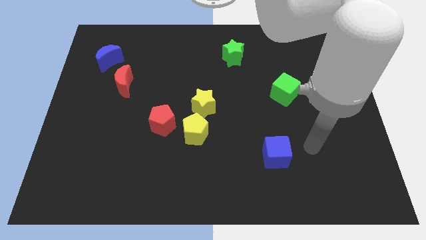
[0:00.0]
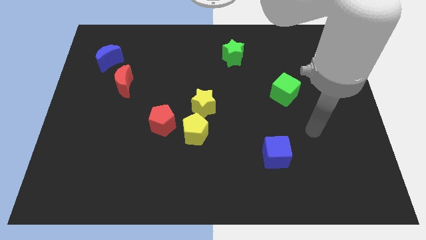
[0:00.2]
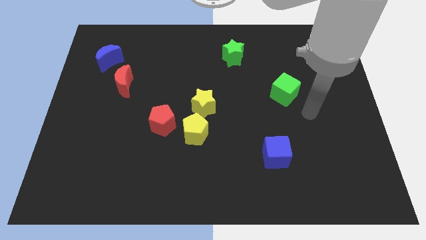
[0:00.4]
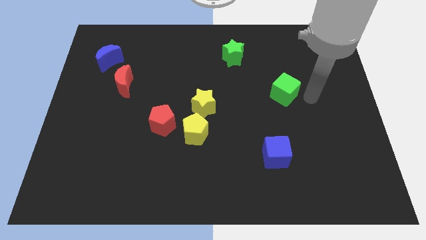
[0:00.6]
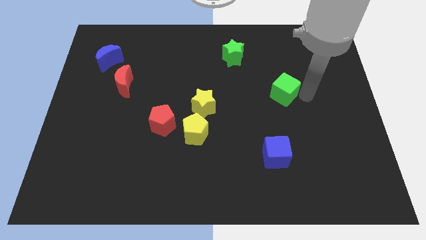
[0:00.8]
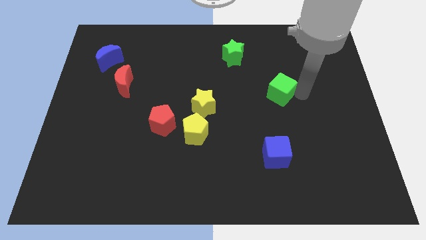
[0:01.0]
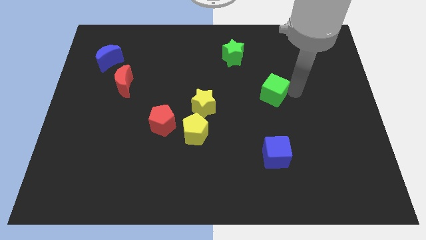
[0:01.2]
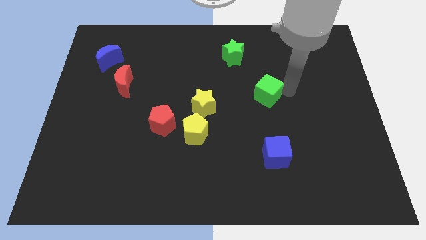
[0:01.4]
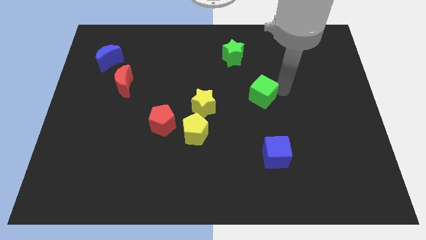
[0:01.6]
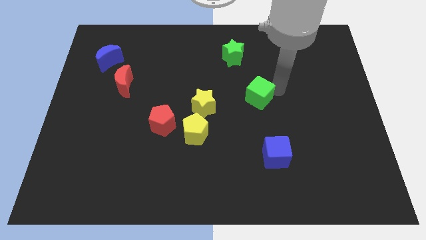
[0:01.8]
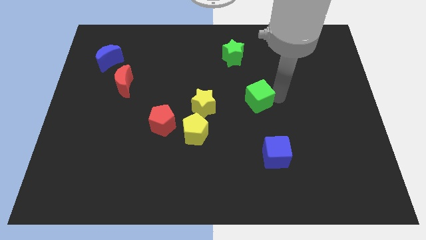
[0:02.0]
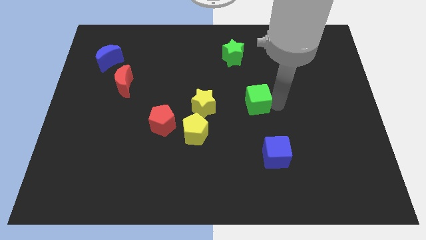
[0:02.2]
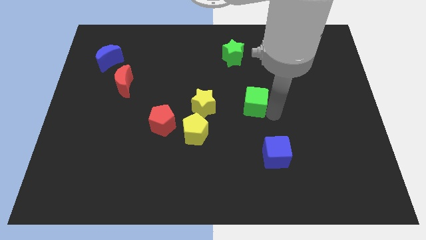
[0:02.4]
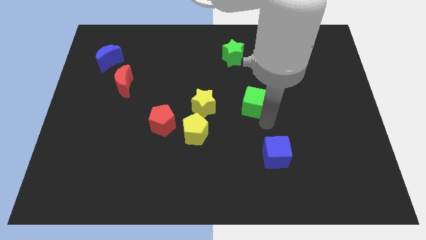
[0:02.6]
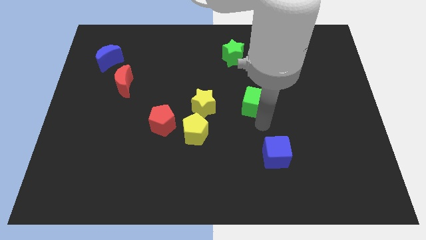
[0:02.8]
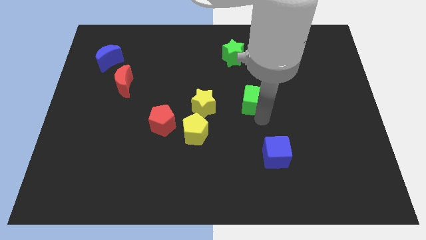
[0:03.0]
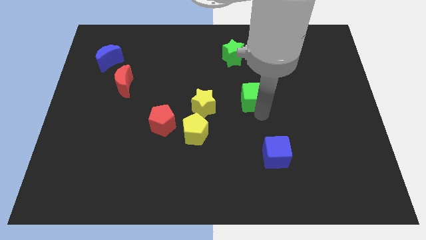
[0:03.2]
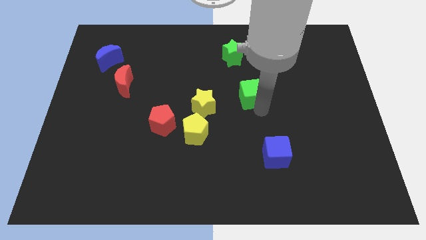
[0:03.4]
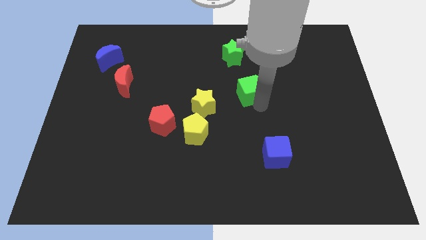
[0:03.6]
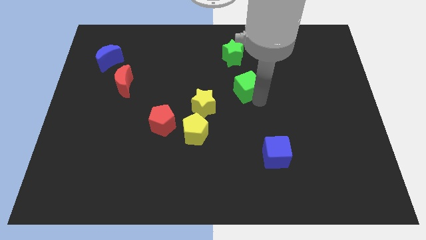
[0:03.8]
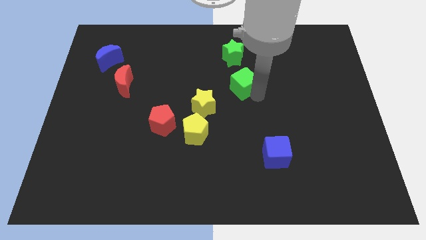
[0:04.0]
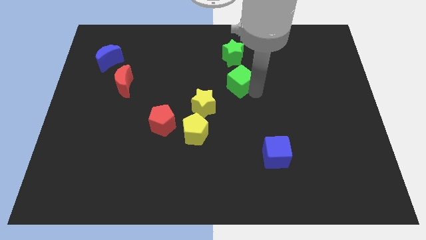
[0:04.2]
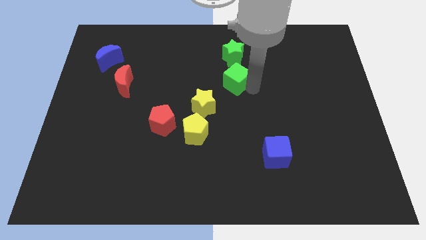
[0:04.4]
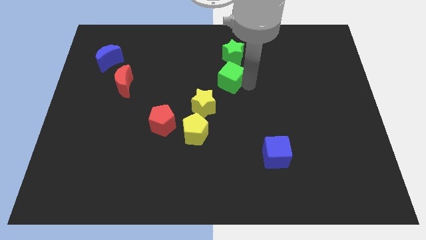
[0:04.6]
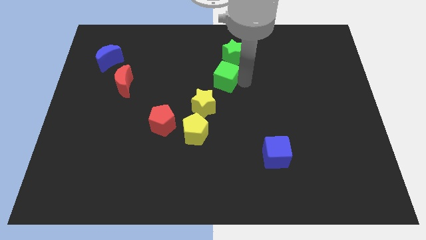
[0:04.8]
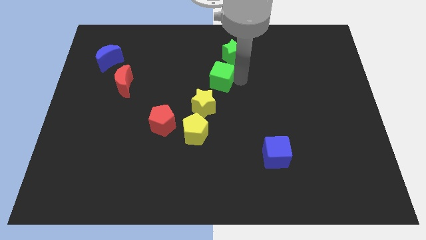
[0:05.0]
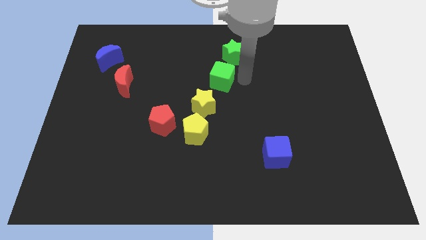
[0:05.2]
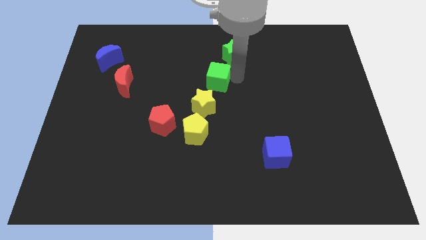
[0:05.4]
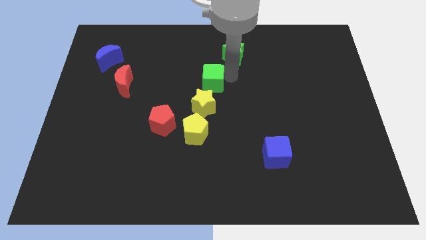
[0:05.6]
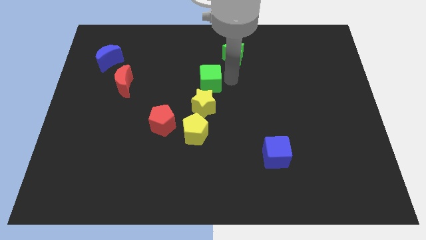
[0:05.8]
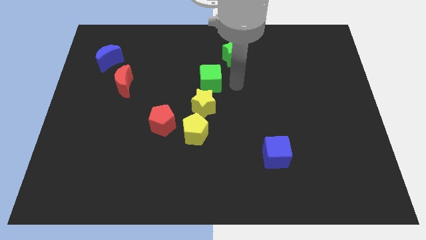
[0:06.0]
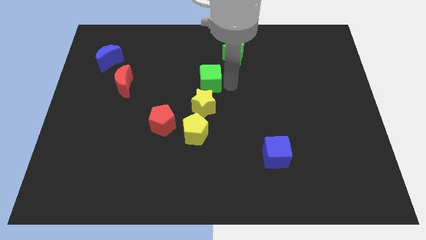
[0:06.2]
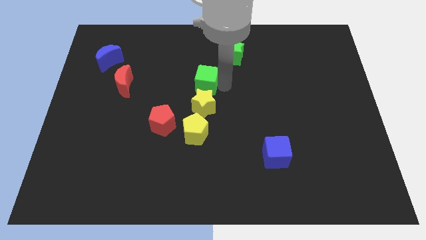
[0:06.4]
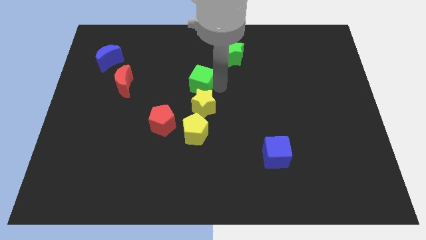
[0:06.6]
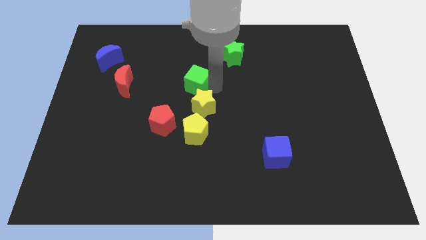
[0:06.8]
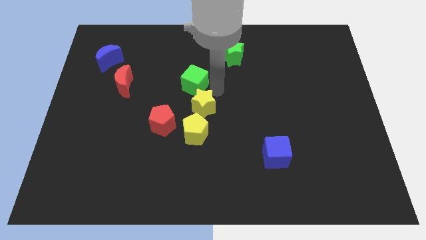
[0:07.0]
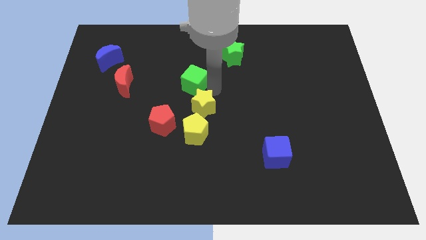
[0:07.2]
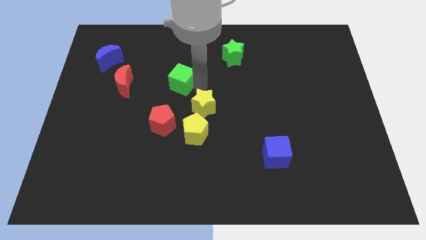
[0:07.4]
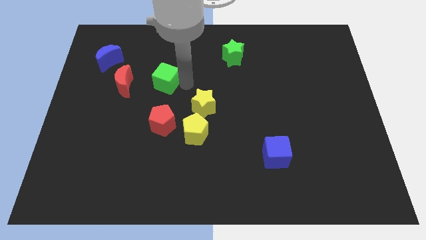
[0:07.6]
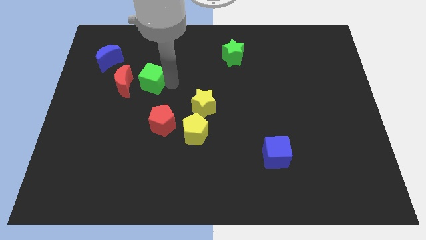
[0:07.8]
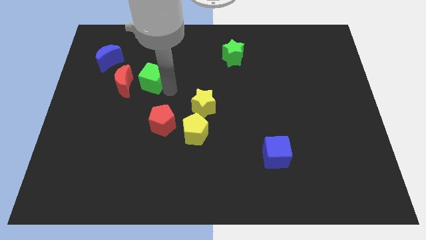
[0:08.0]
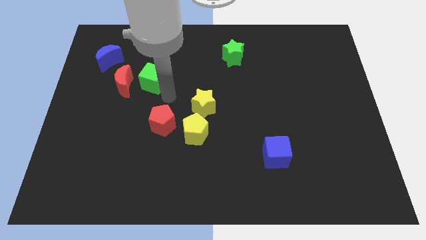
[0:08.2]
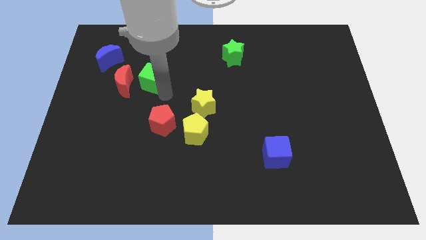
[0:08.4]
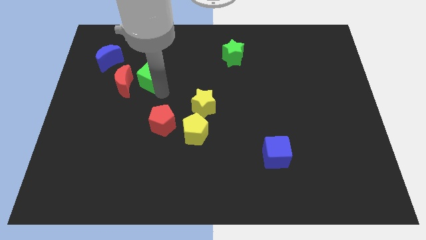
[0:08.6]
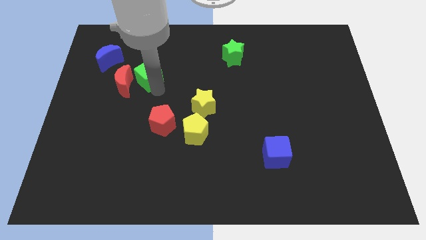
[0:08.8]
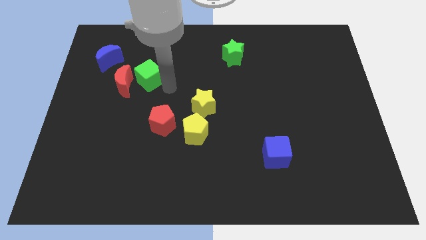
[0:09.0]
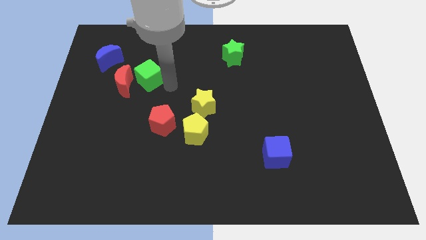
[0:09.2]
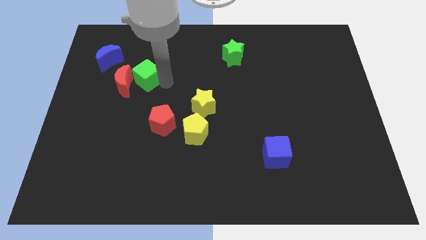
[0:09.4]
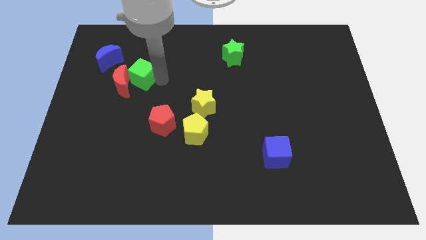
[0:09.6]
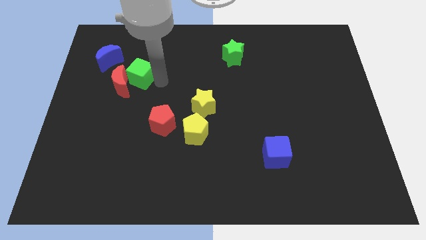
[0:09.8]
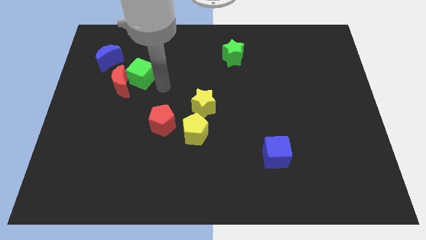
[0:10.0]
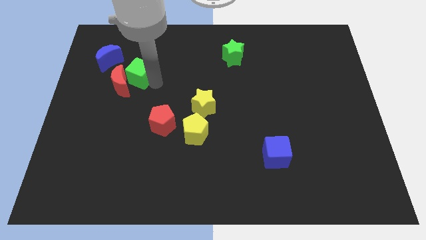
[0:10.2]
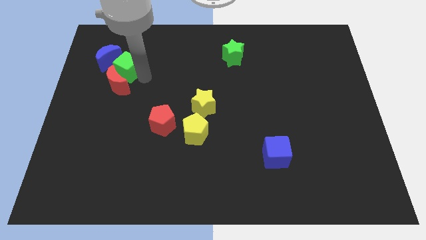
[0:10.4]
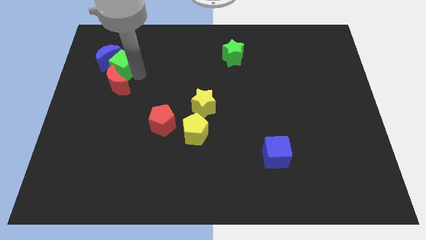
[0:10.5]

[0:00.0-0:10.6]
move the green cube close to the blue moon

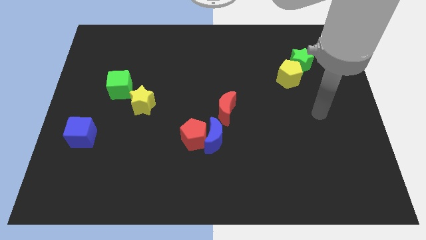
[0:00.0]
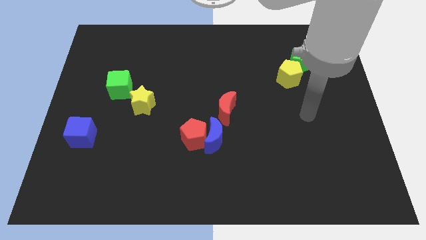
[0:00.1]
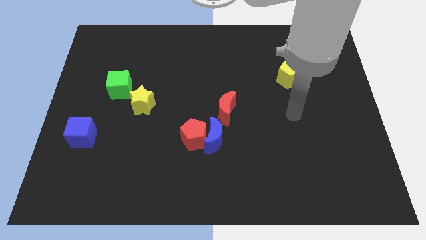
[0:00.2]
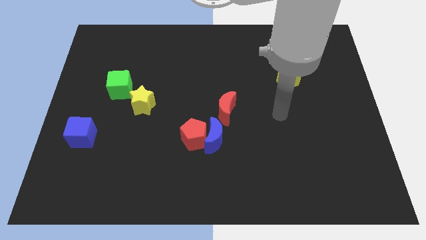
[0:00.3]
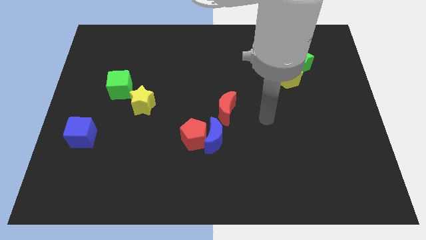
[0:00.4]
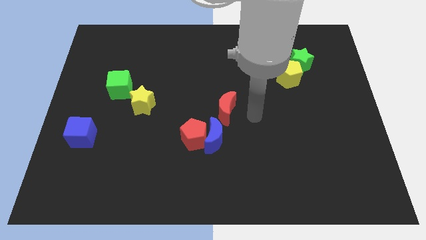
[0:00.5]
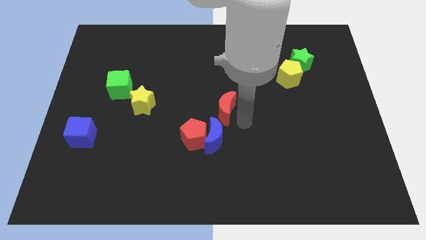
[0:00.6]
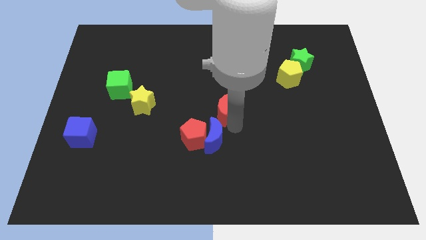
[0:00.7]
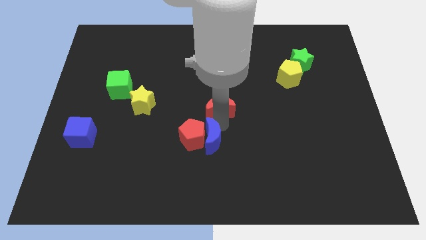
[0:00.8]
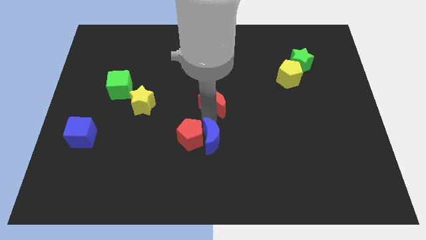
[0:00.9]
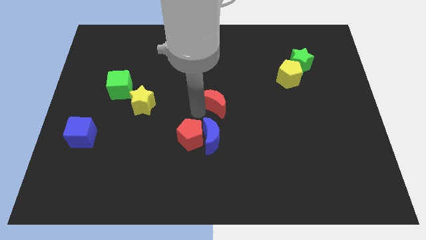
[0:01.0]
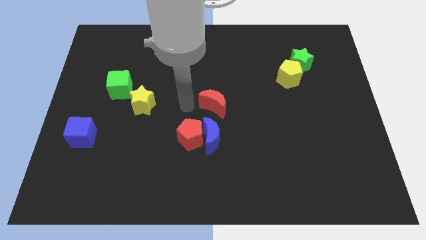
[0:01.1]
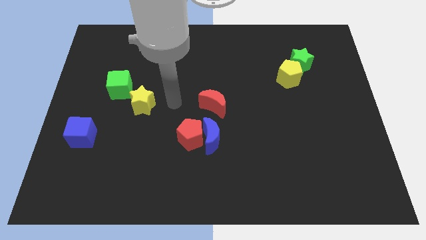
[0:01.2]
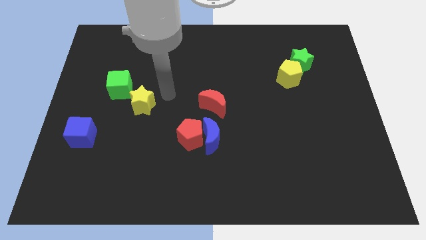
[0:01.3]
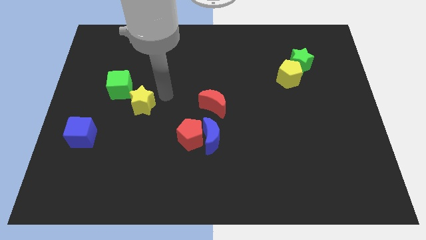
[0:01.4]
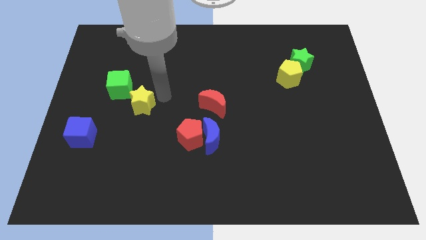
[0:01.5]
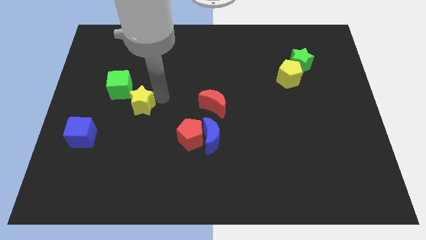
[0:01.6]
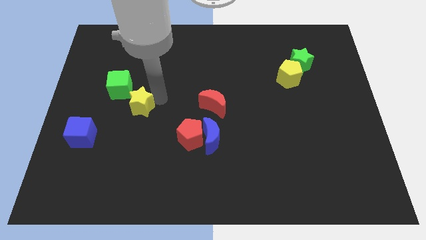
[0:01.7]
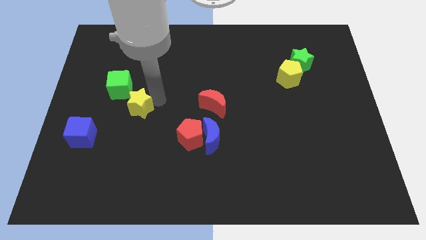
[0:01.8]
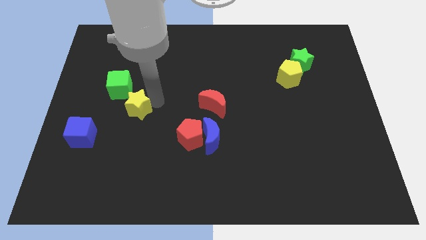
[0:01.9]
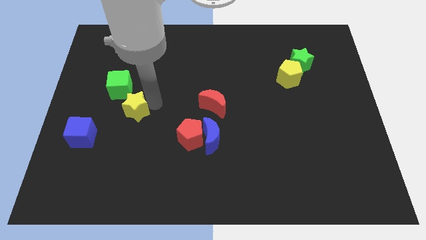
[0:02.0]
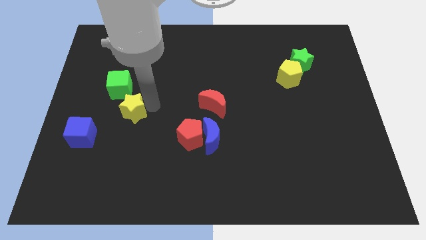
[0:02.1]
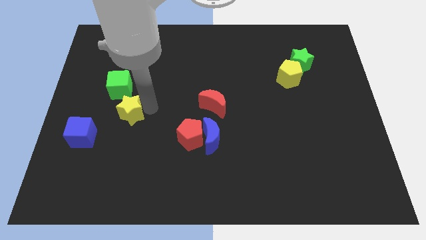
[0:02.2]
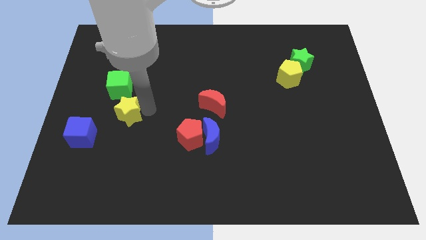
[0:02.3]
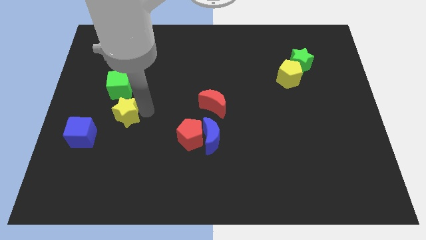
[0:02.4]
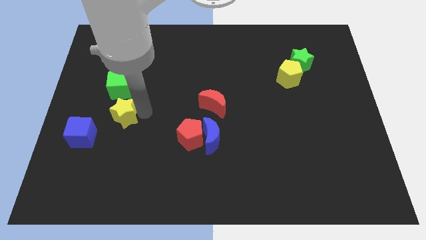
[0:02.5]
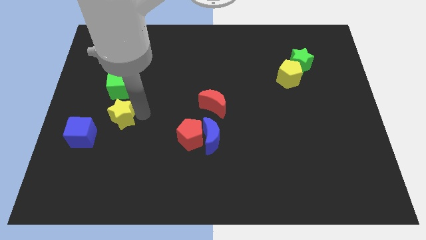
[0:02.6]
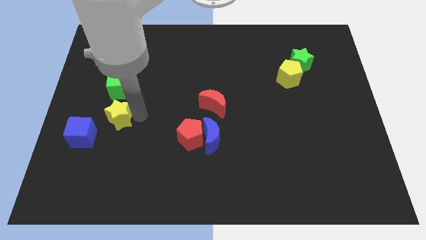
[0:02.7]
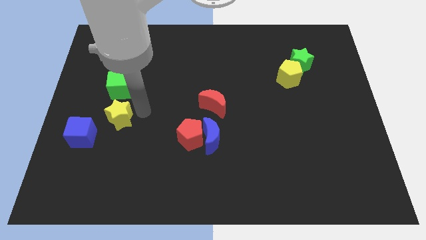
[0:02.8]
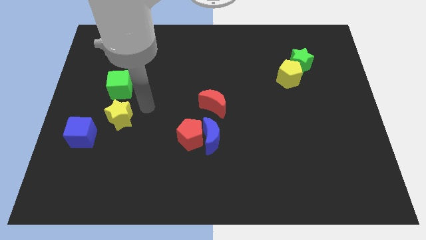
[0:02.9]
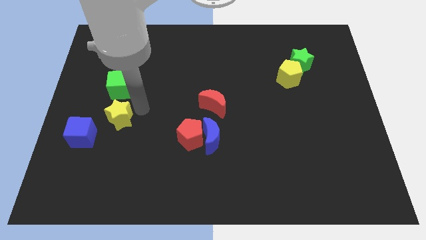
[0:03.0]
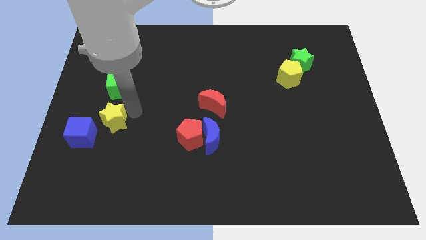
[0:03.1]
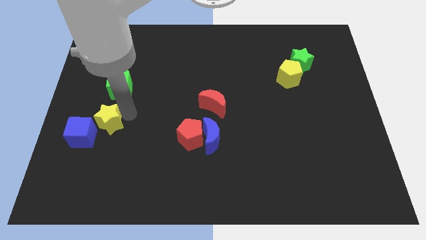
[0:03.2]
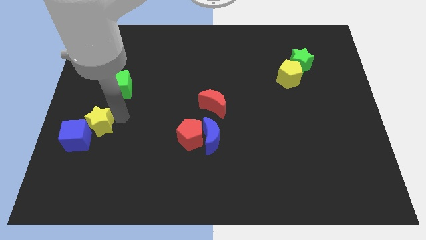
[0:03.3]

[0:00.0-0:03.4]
put the yellow star close to the blue cube
